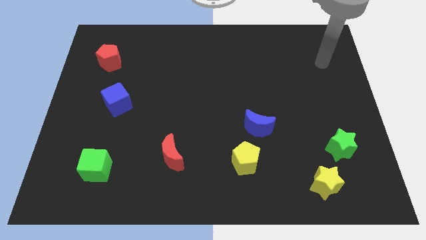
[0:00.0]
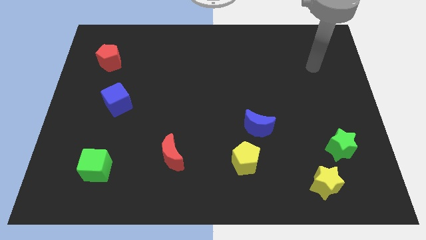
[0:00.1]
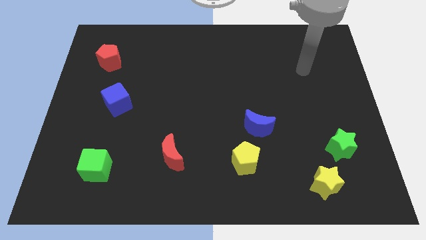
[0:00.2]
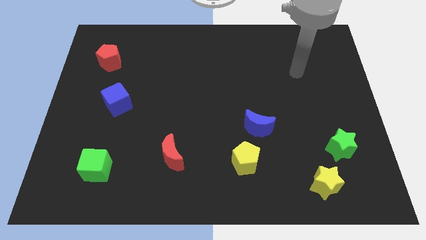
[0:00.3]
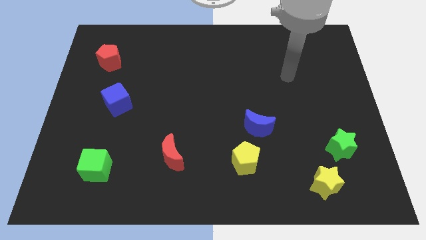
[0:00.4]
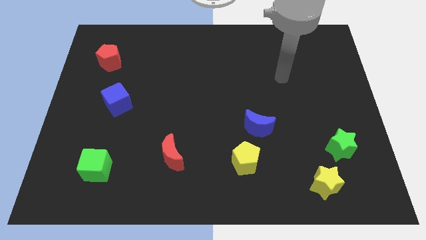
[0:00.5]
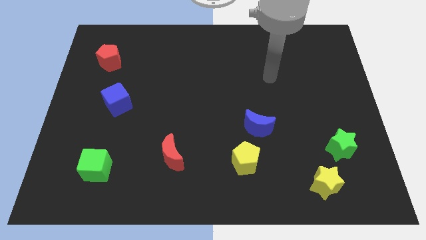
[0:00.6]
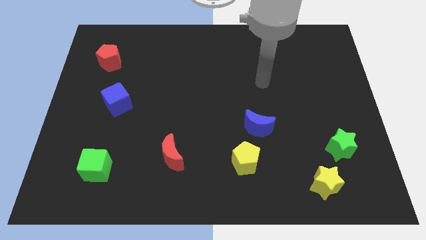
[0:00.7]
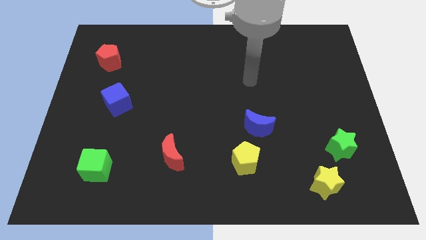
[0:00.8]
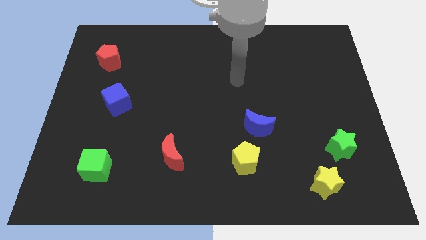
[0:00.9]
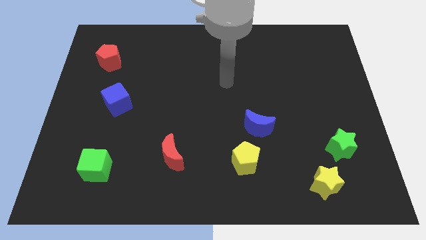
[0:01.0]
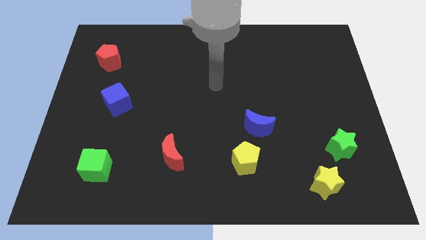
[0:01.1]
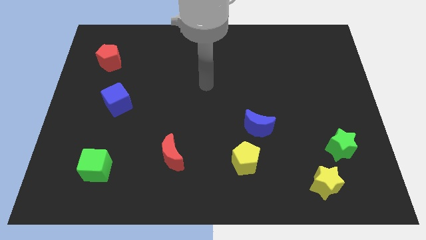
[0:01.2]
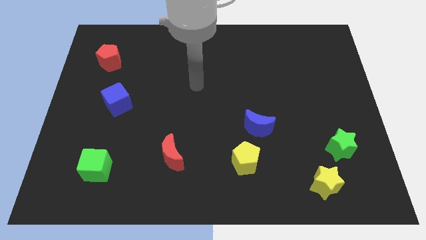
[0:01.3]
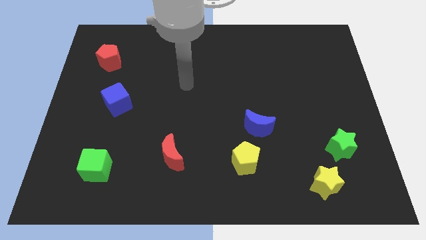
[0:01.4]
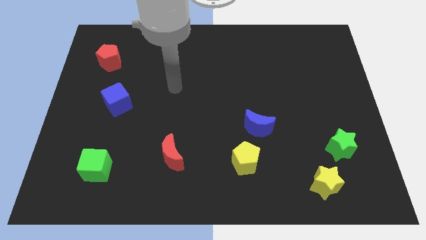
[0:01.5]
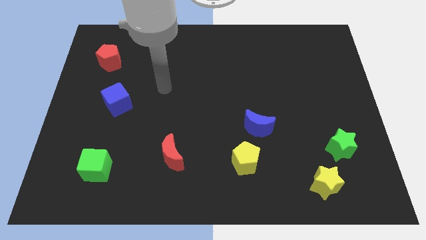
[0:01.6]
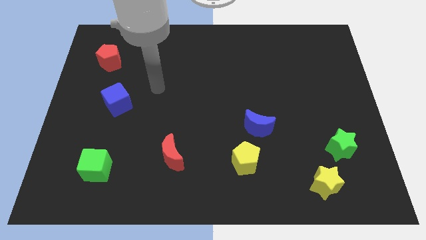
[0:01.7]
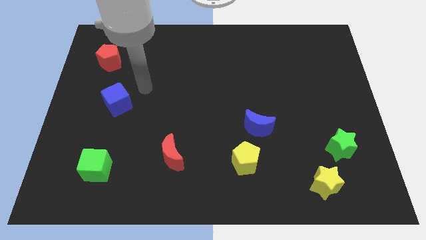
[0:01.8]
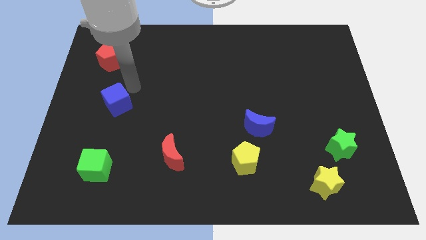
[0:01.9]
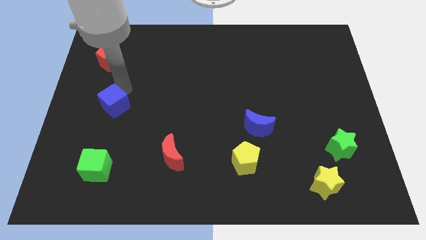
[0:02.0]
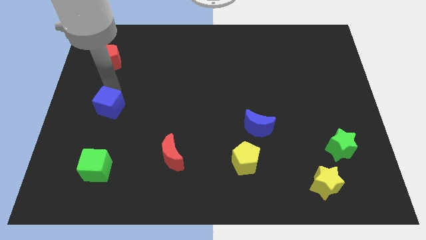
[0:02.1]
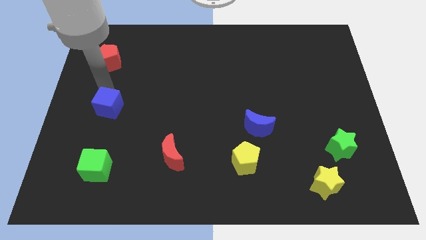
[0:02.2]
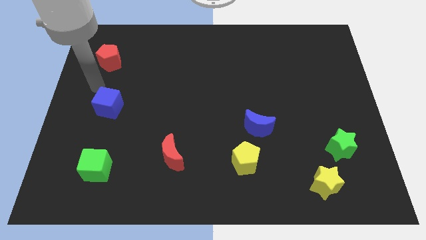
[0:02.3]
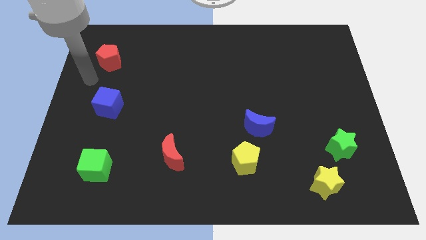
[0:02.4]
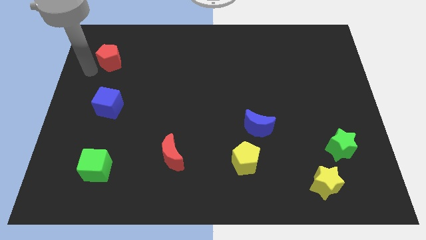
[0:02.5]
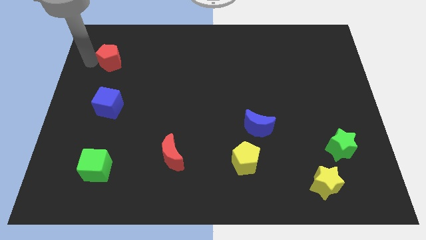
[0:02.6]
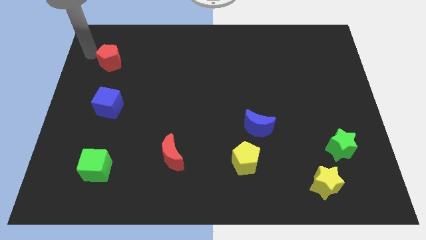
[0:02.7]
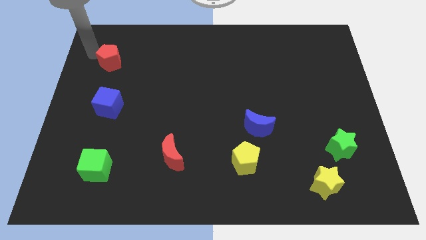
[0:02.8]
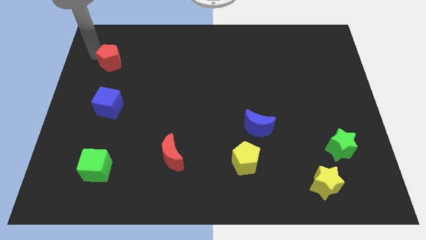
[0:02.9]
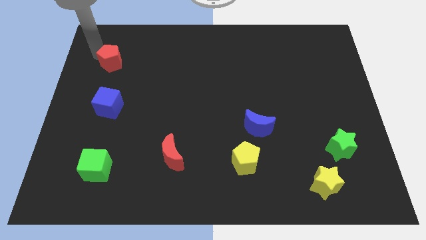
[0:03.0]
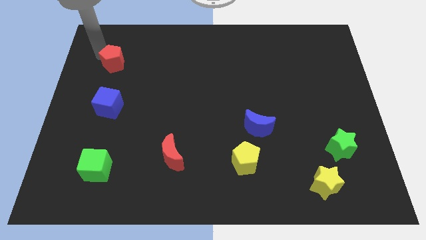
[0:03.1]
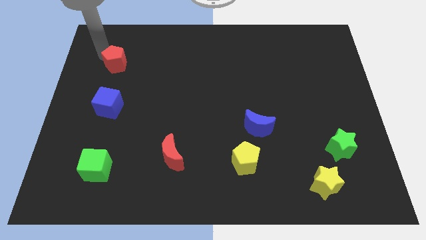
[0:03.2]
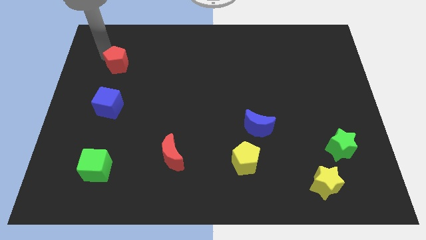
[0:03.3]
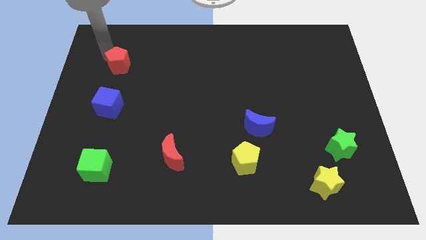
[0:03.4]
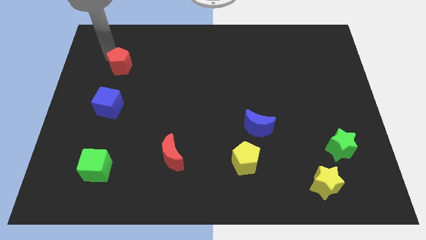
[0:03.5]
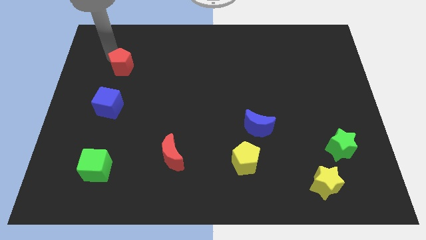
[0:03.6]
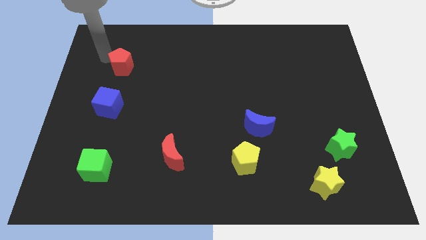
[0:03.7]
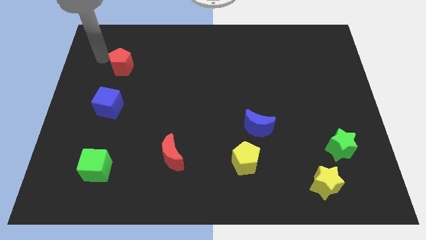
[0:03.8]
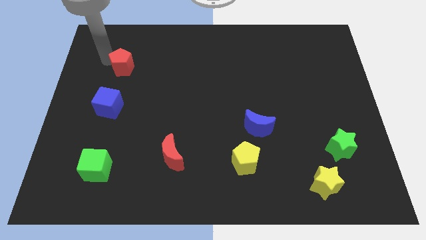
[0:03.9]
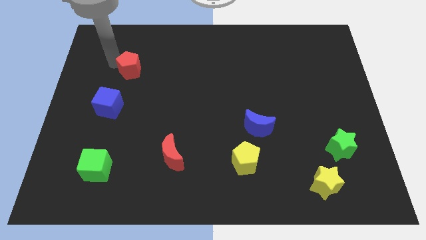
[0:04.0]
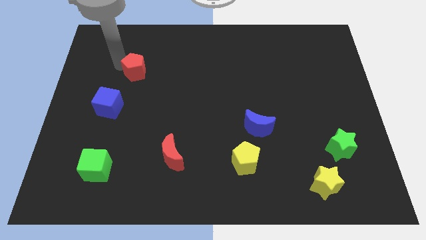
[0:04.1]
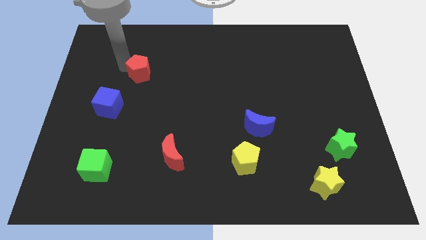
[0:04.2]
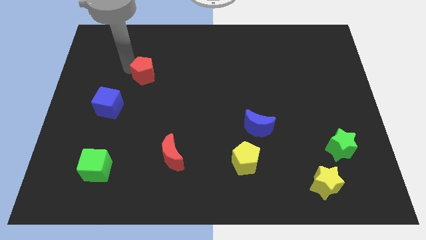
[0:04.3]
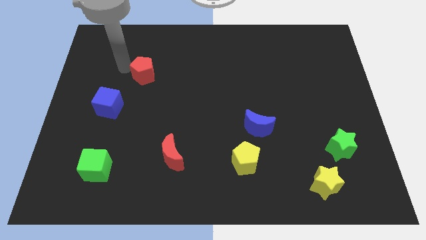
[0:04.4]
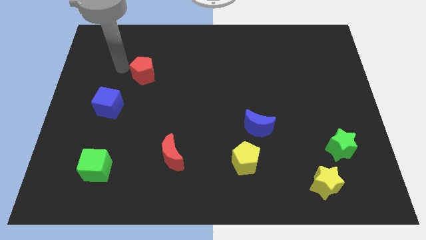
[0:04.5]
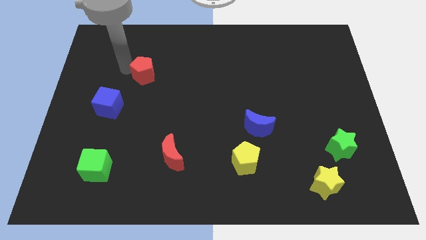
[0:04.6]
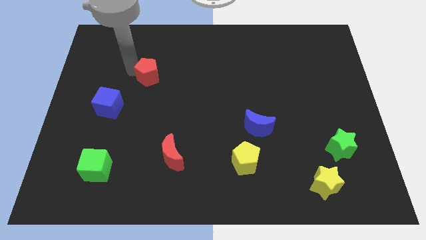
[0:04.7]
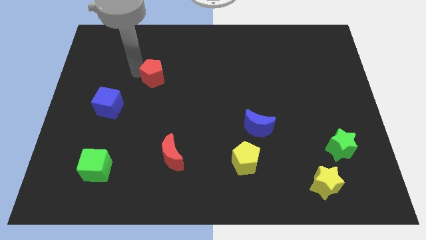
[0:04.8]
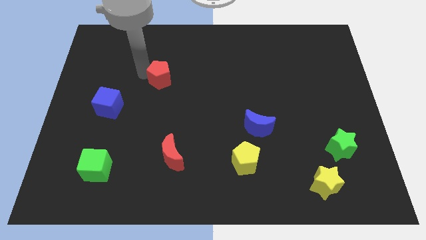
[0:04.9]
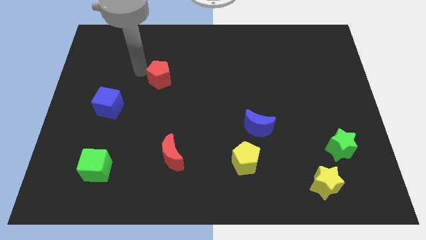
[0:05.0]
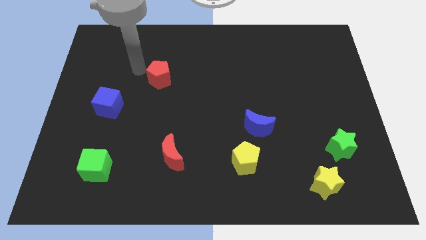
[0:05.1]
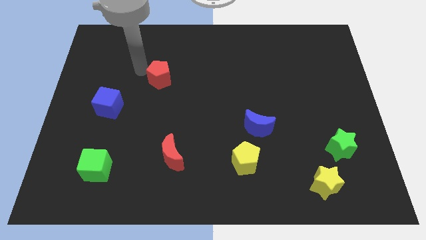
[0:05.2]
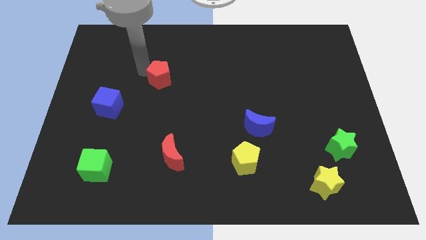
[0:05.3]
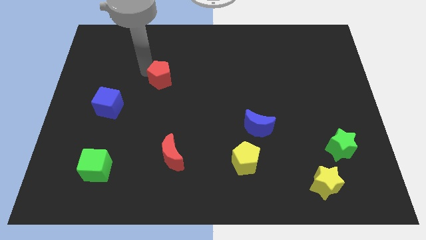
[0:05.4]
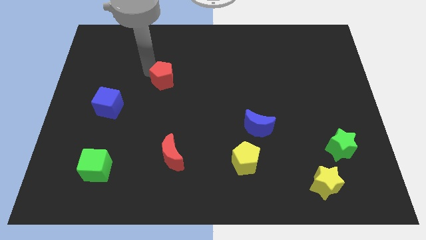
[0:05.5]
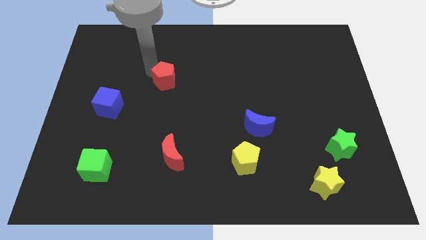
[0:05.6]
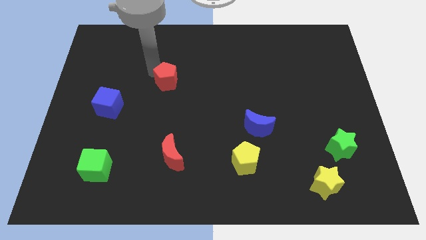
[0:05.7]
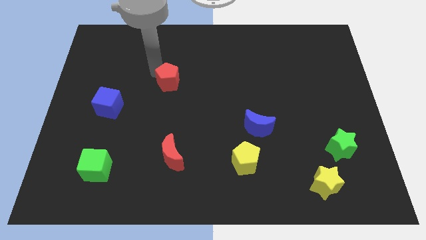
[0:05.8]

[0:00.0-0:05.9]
move the red pentagon to the middle of the board

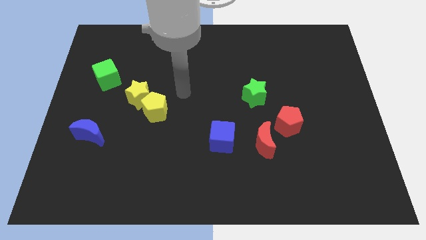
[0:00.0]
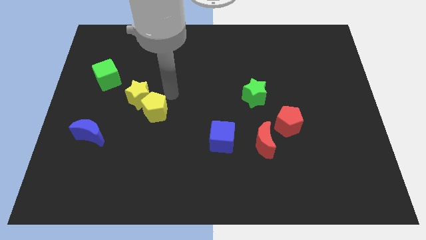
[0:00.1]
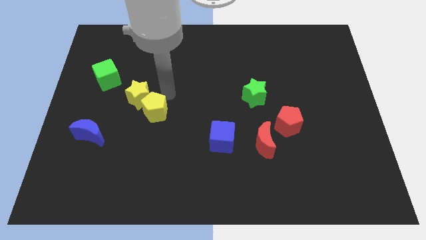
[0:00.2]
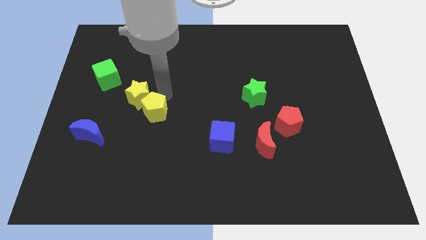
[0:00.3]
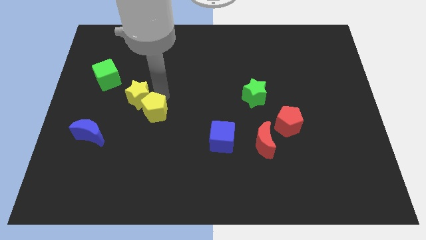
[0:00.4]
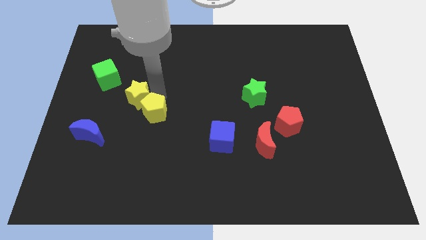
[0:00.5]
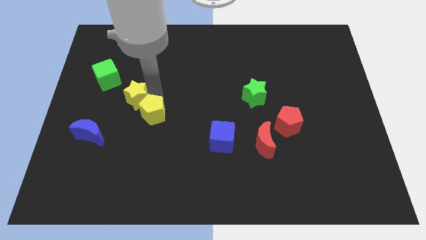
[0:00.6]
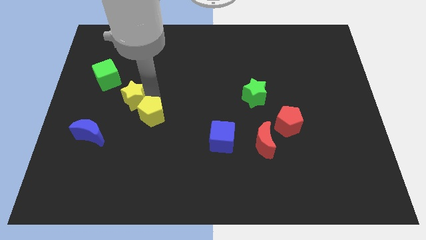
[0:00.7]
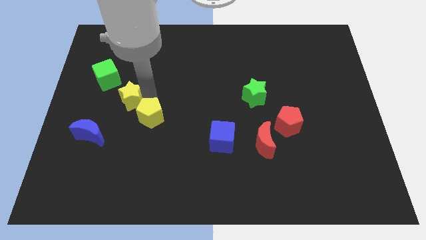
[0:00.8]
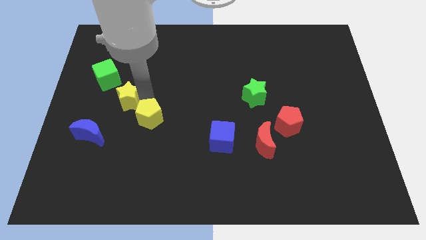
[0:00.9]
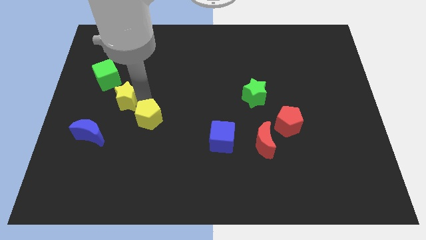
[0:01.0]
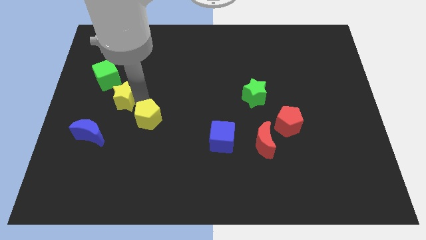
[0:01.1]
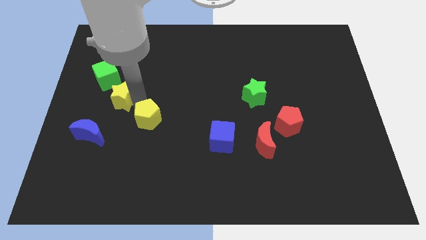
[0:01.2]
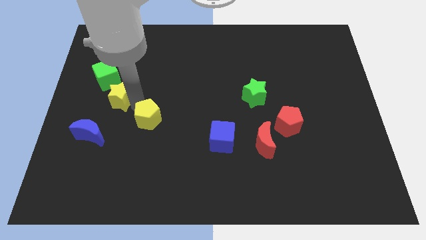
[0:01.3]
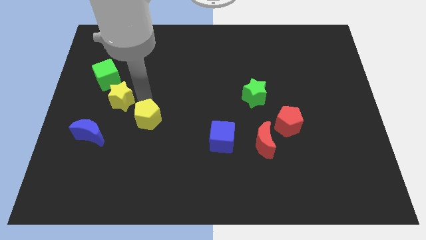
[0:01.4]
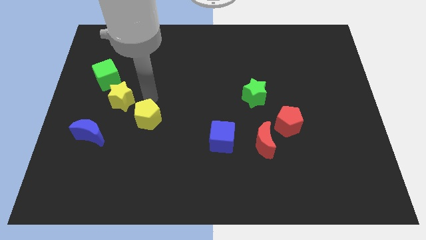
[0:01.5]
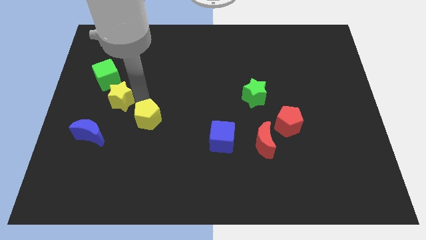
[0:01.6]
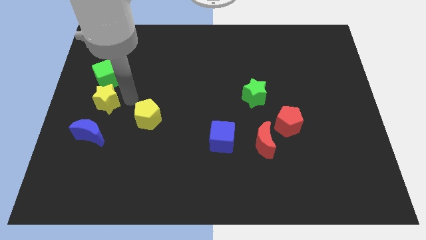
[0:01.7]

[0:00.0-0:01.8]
slide the yellow star to the center left
